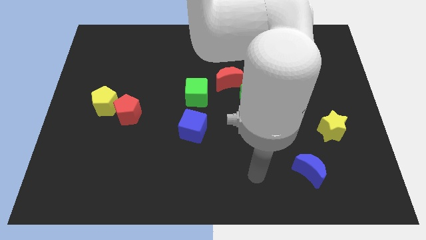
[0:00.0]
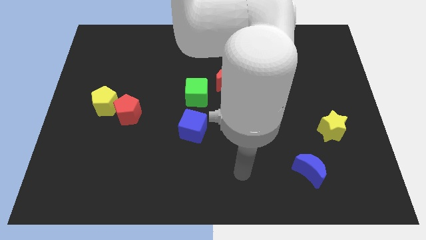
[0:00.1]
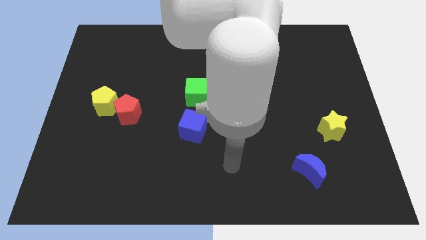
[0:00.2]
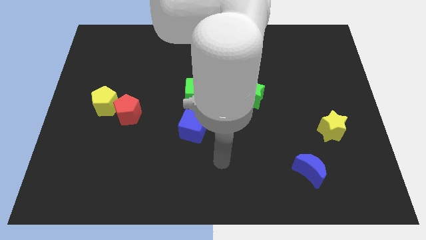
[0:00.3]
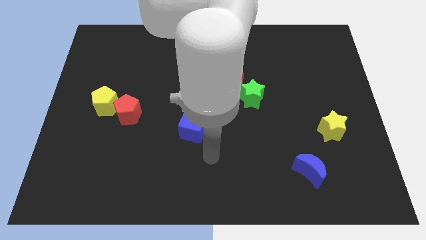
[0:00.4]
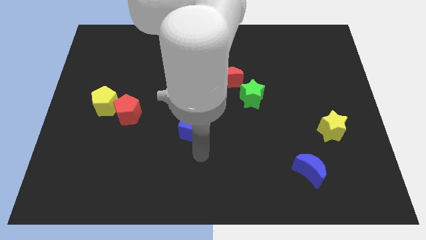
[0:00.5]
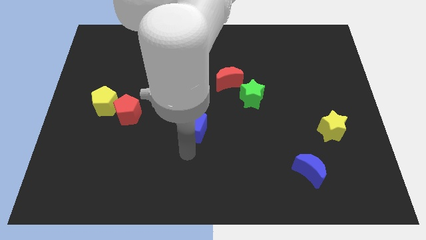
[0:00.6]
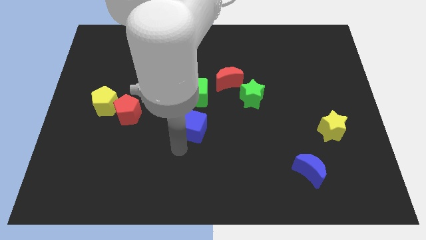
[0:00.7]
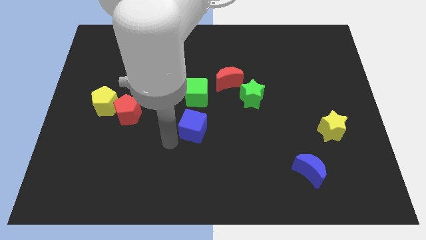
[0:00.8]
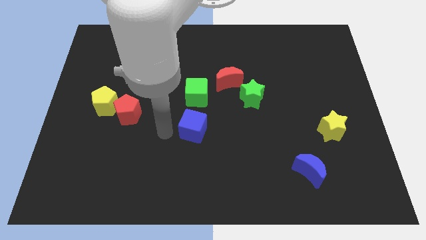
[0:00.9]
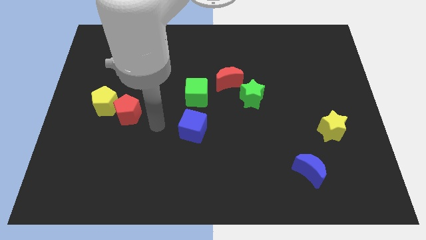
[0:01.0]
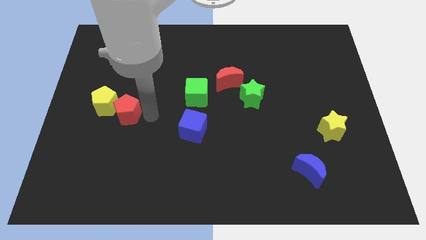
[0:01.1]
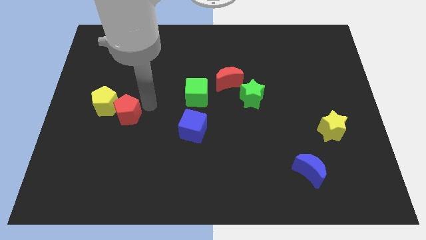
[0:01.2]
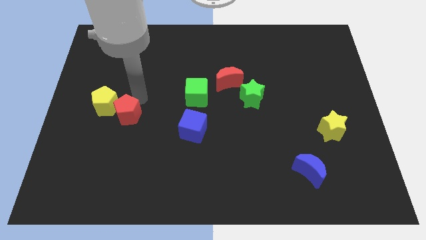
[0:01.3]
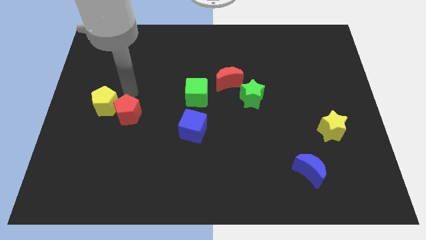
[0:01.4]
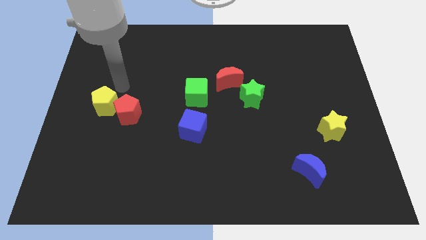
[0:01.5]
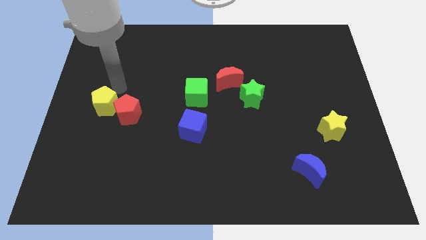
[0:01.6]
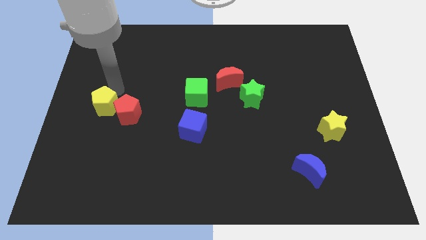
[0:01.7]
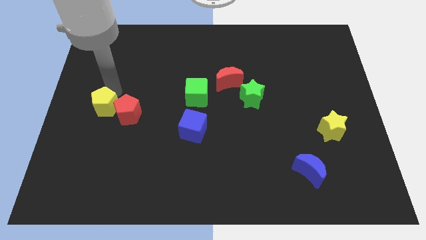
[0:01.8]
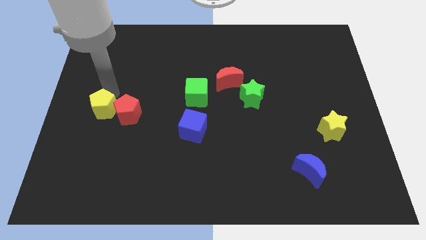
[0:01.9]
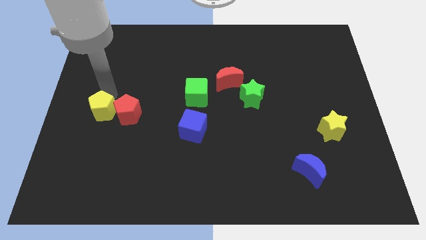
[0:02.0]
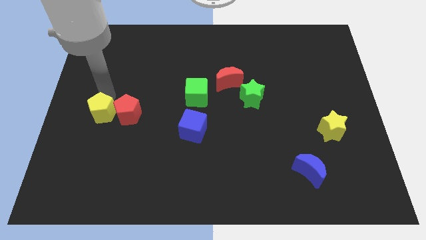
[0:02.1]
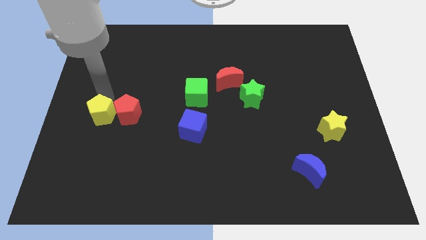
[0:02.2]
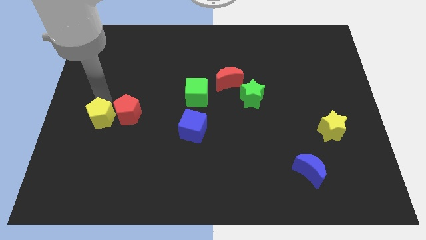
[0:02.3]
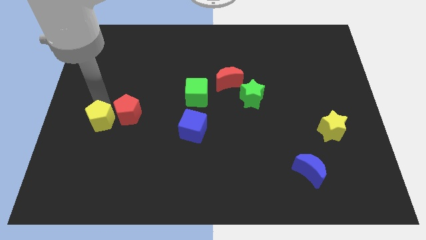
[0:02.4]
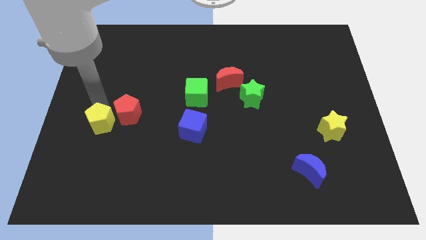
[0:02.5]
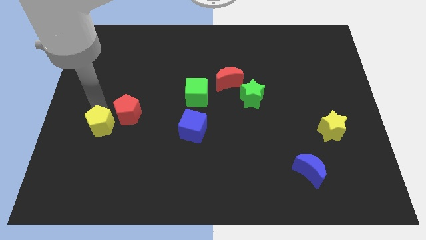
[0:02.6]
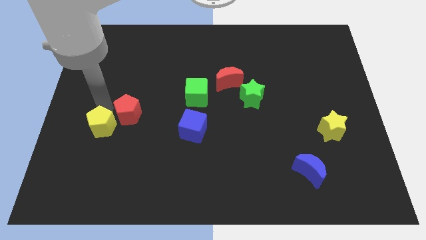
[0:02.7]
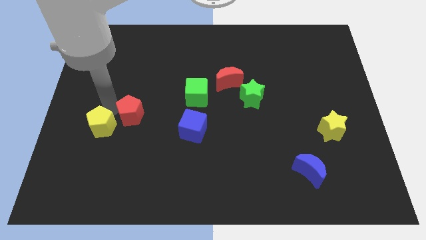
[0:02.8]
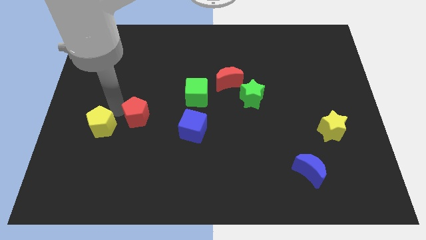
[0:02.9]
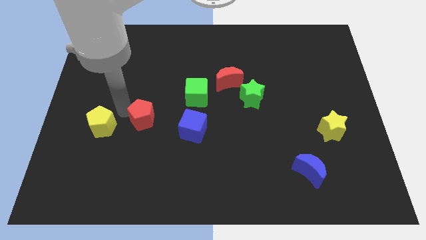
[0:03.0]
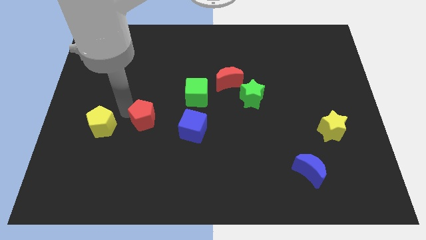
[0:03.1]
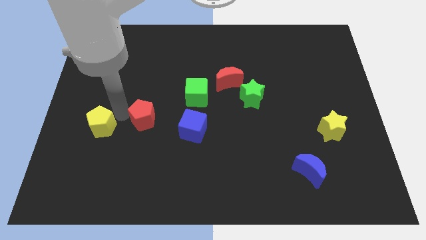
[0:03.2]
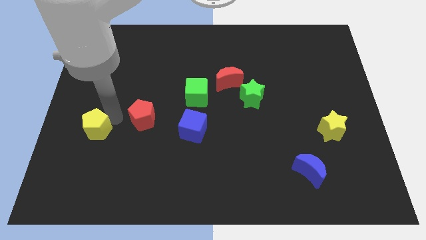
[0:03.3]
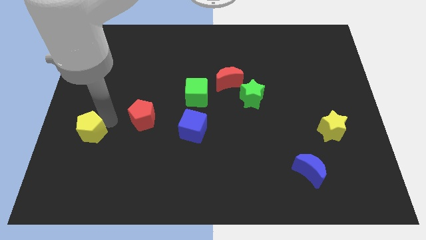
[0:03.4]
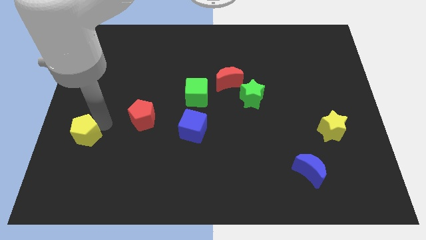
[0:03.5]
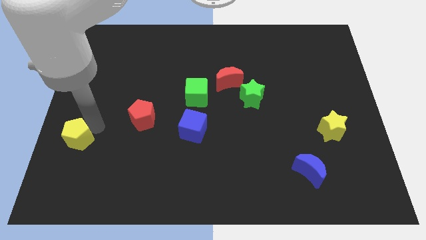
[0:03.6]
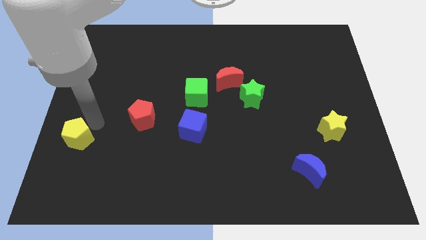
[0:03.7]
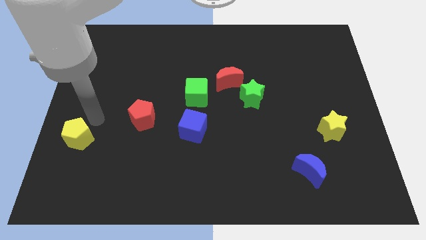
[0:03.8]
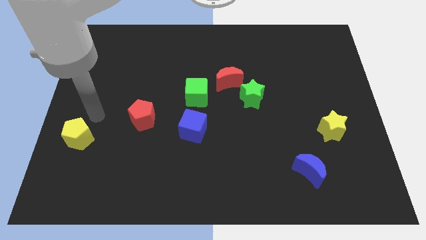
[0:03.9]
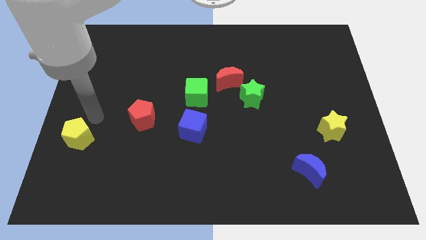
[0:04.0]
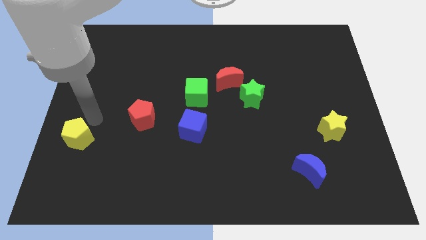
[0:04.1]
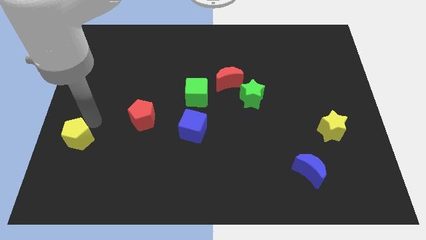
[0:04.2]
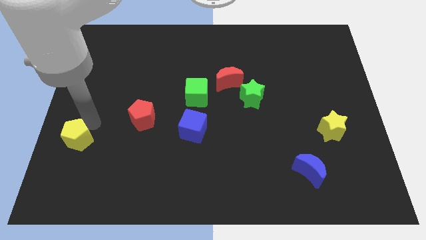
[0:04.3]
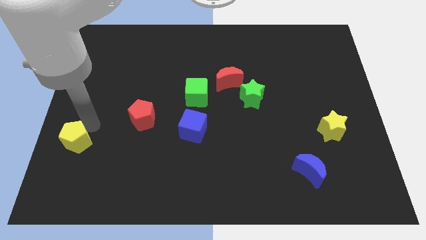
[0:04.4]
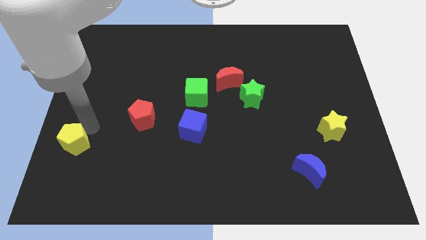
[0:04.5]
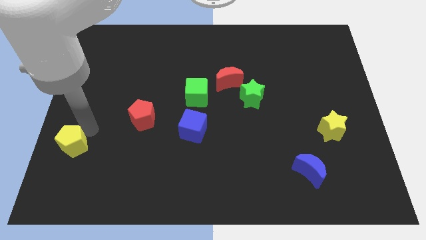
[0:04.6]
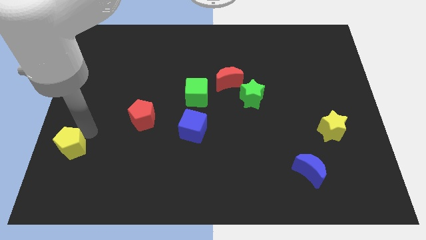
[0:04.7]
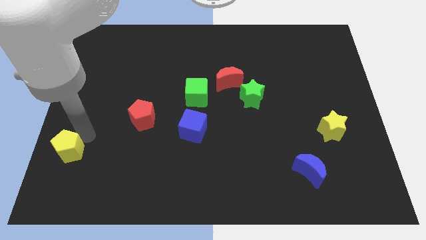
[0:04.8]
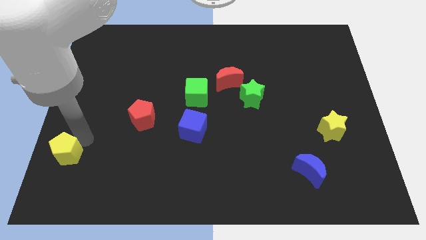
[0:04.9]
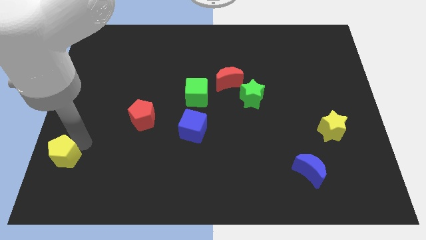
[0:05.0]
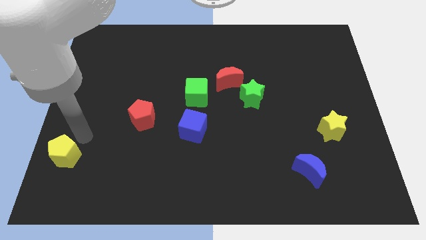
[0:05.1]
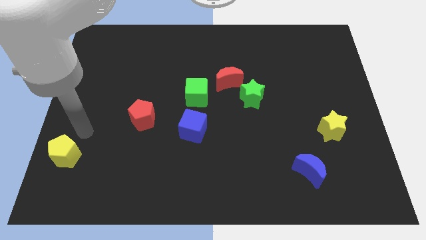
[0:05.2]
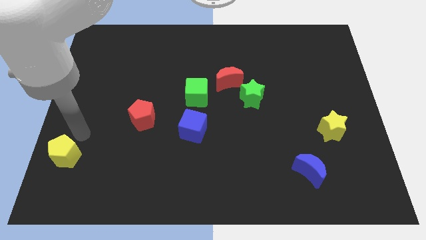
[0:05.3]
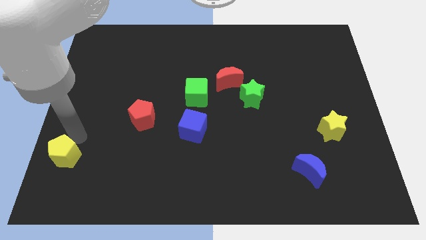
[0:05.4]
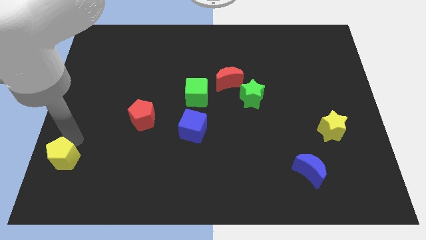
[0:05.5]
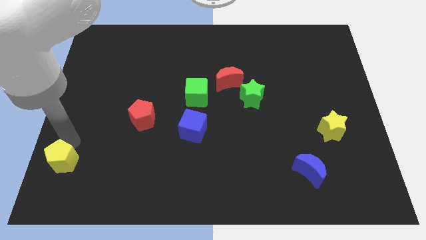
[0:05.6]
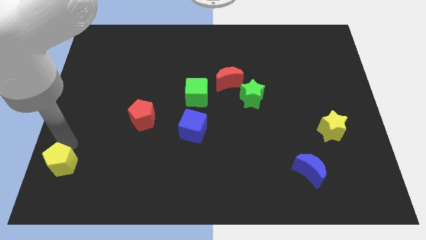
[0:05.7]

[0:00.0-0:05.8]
put the yellow pentagon to the bottom left
